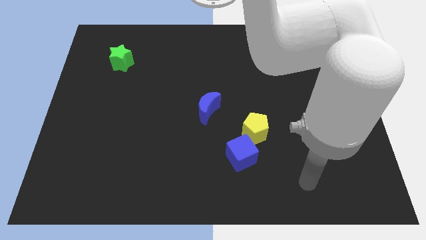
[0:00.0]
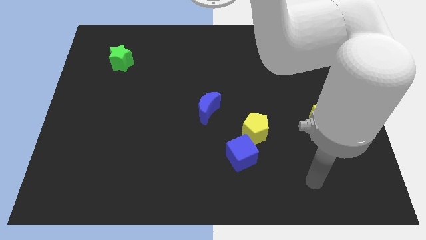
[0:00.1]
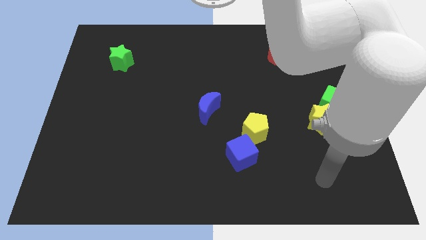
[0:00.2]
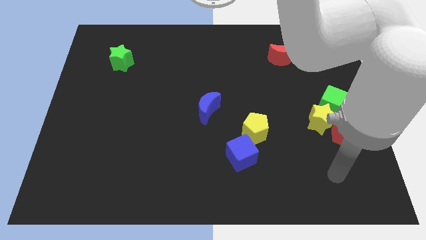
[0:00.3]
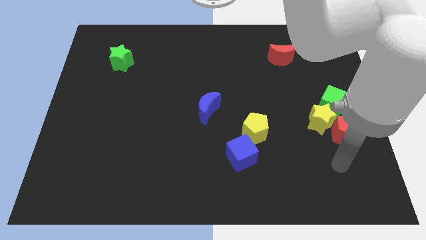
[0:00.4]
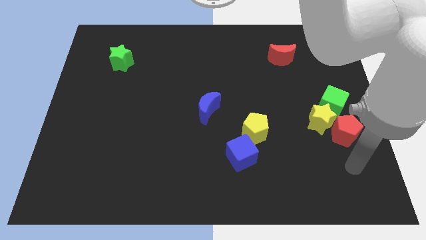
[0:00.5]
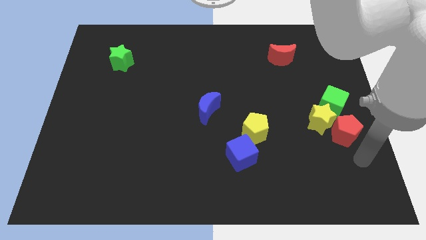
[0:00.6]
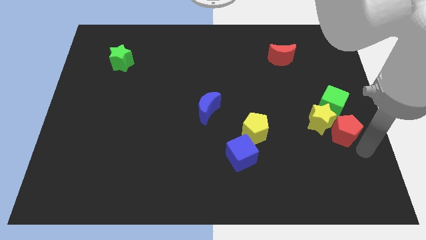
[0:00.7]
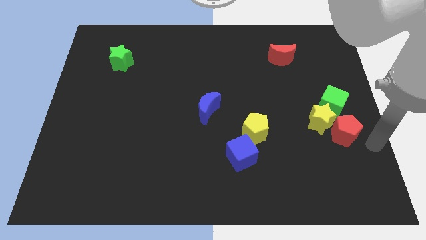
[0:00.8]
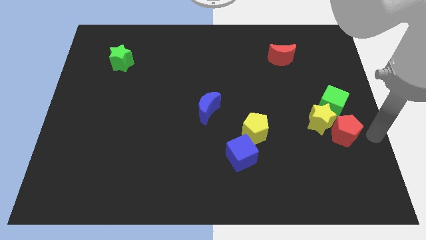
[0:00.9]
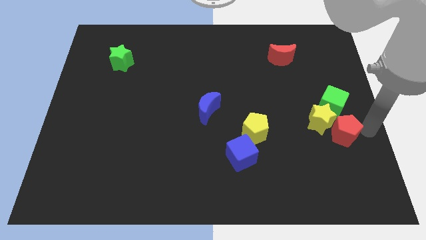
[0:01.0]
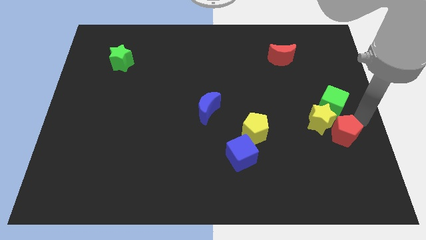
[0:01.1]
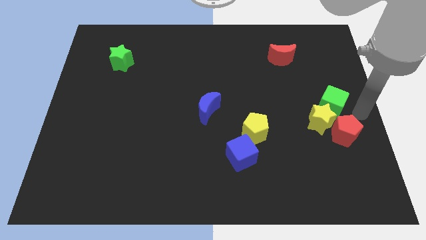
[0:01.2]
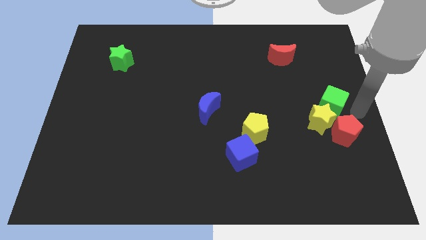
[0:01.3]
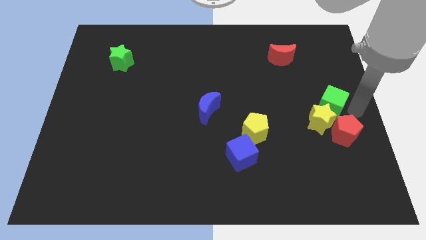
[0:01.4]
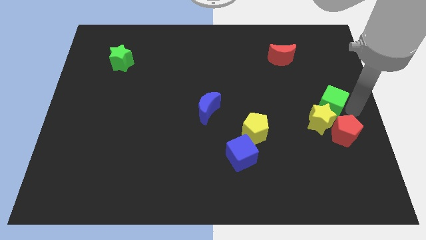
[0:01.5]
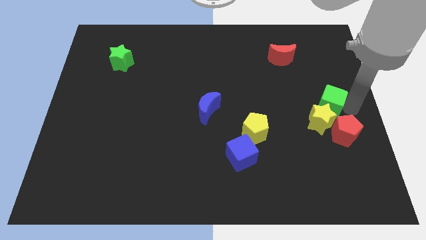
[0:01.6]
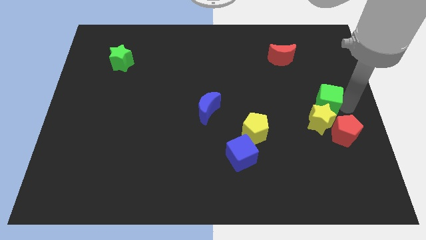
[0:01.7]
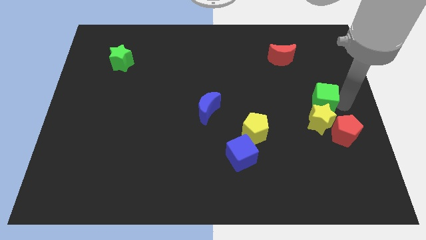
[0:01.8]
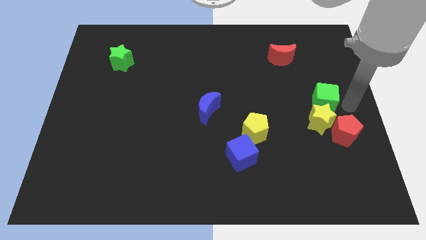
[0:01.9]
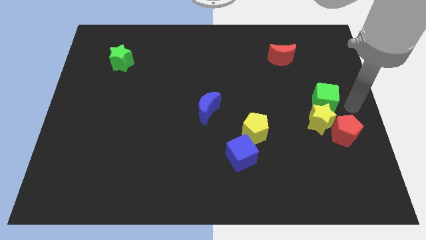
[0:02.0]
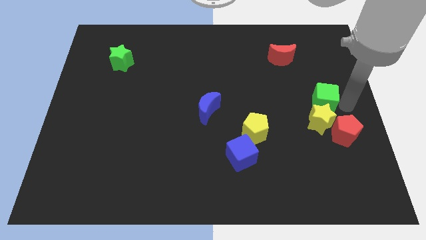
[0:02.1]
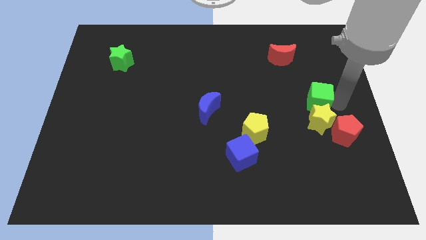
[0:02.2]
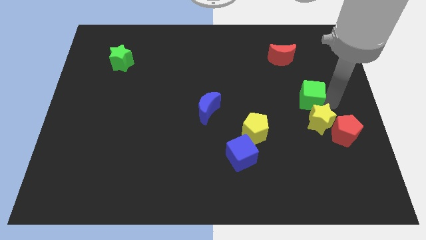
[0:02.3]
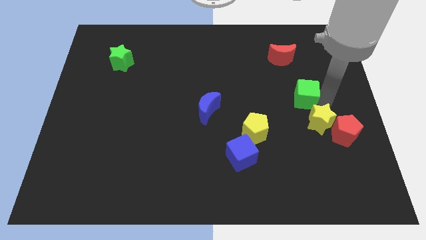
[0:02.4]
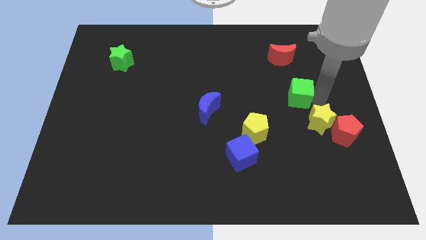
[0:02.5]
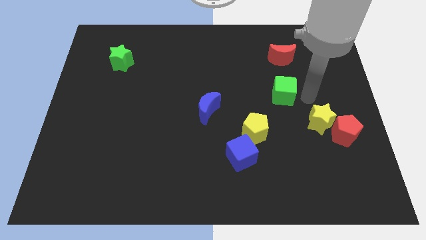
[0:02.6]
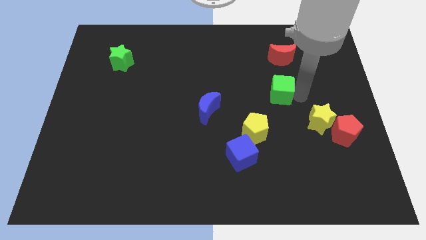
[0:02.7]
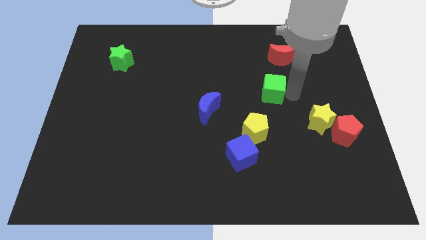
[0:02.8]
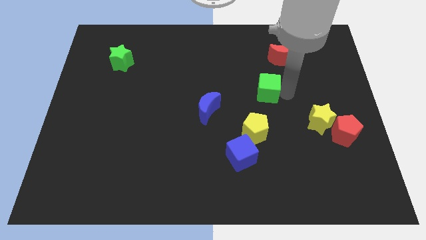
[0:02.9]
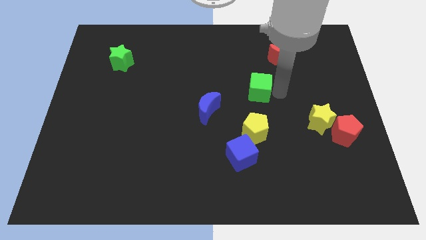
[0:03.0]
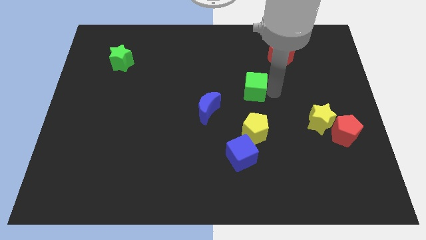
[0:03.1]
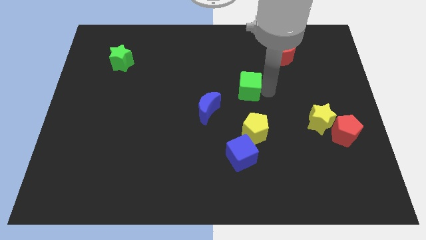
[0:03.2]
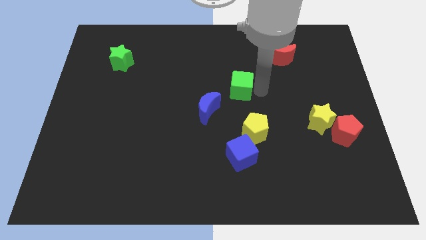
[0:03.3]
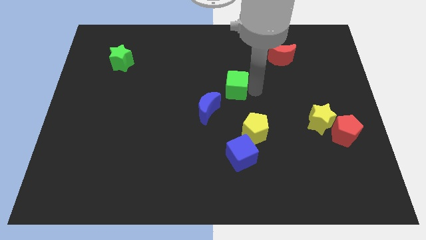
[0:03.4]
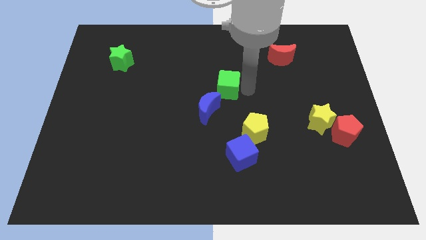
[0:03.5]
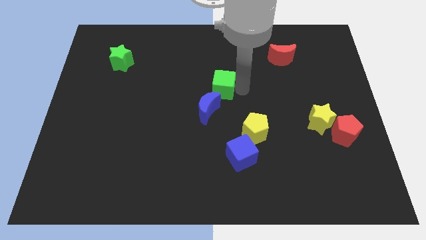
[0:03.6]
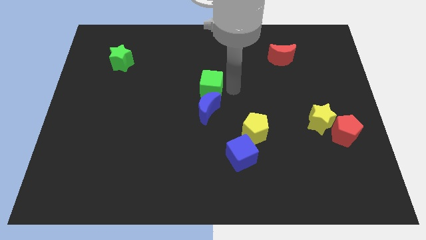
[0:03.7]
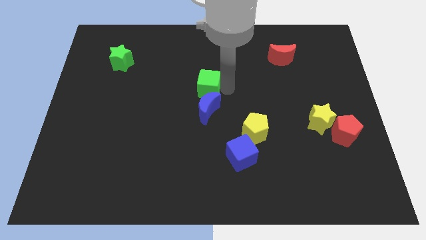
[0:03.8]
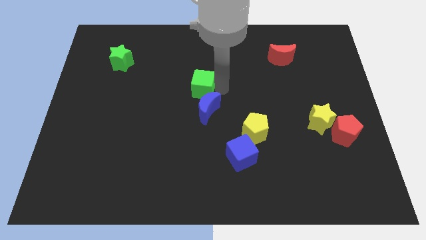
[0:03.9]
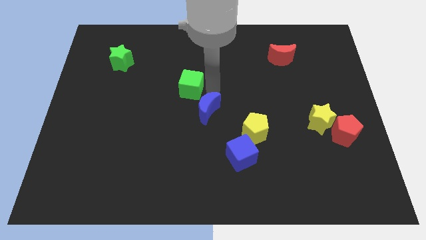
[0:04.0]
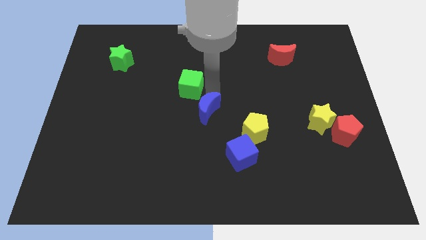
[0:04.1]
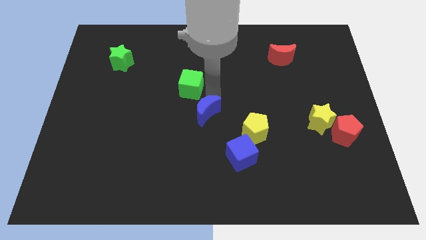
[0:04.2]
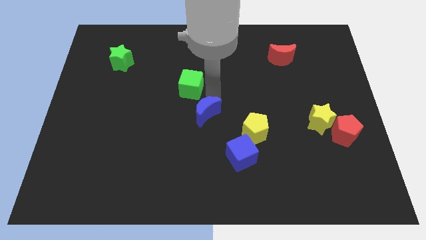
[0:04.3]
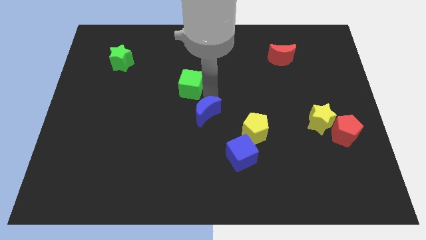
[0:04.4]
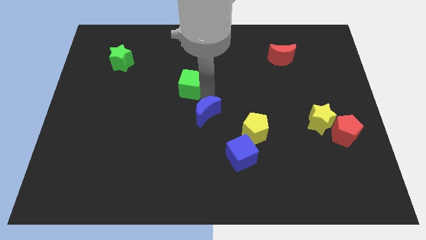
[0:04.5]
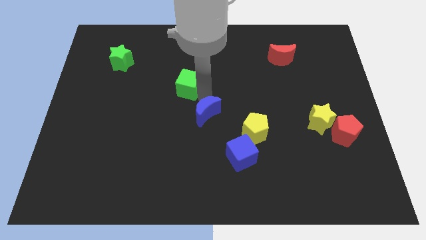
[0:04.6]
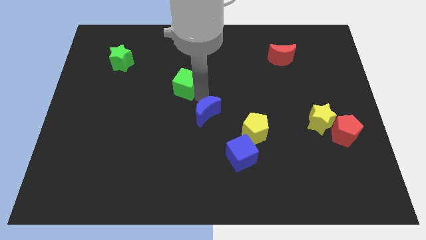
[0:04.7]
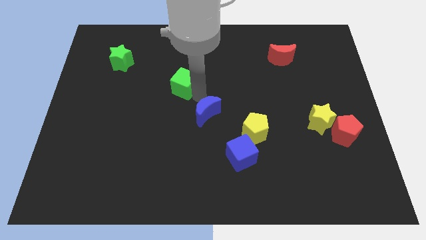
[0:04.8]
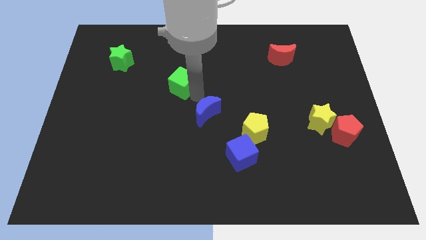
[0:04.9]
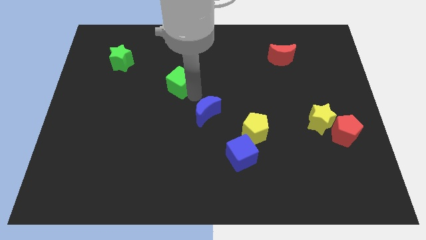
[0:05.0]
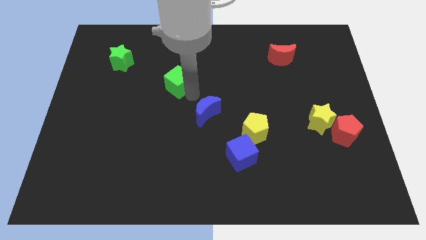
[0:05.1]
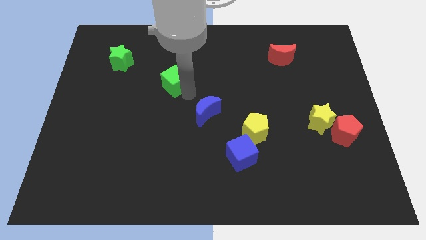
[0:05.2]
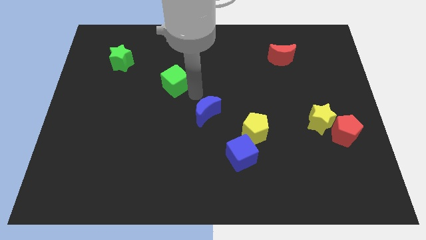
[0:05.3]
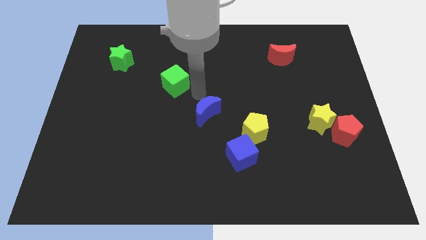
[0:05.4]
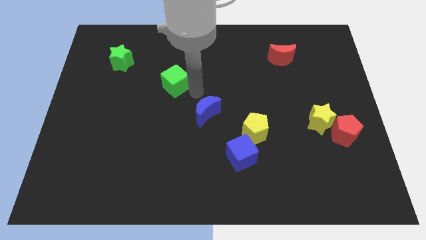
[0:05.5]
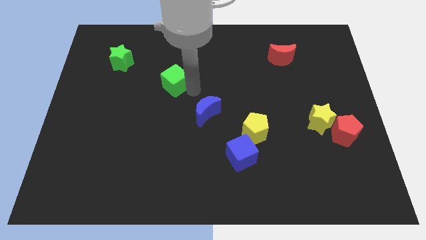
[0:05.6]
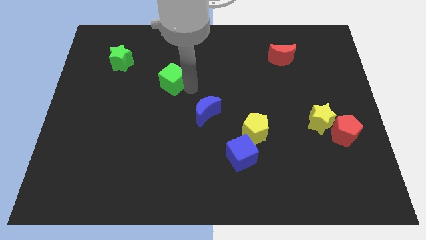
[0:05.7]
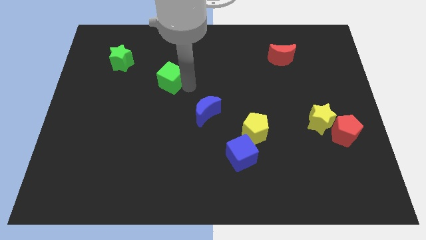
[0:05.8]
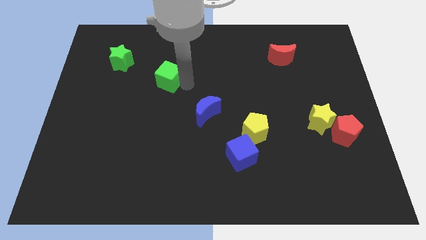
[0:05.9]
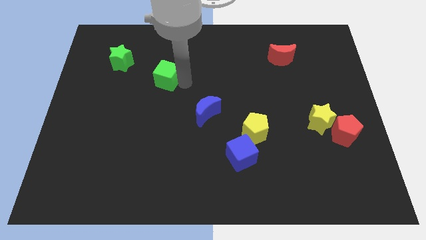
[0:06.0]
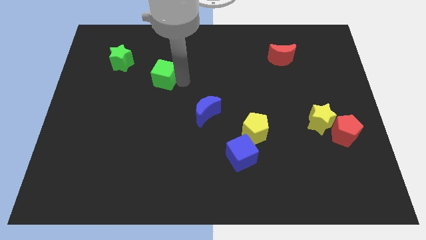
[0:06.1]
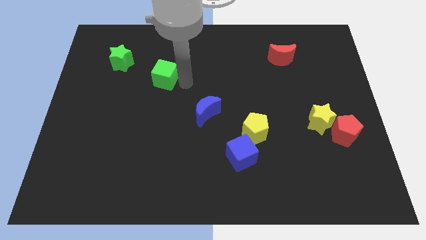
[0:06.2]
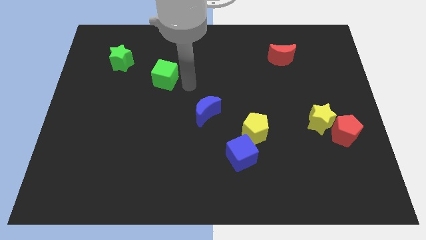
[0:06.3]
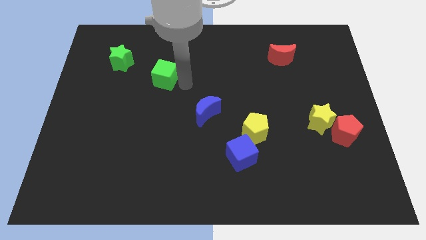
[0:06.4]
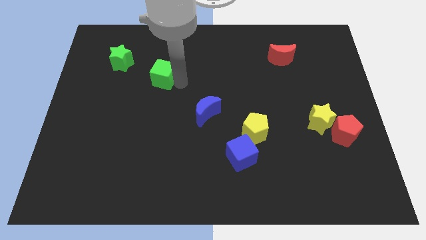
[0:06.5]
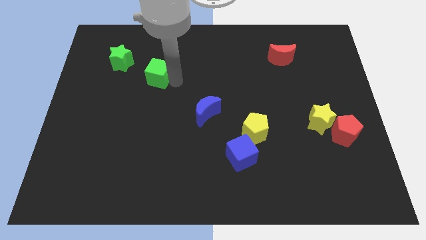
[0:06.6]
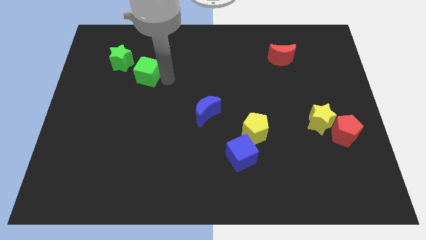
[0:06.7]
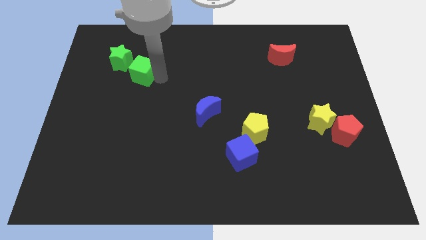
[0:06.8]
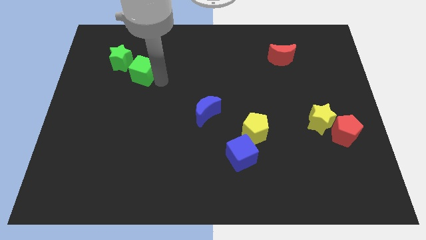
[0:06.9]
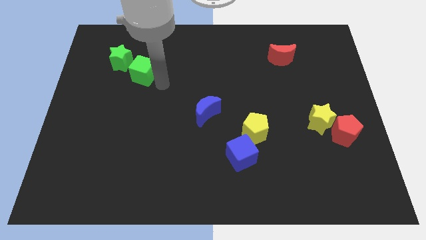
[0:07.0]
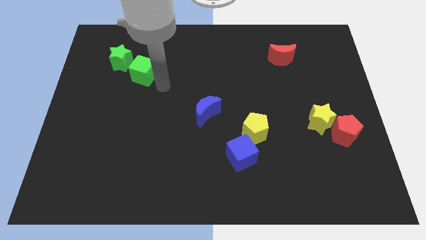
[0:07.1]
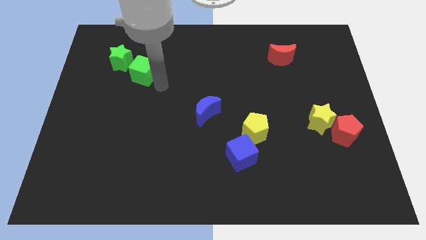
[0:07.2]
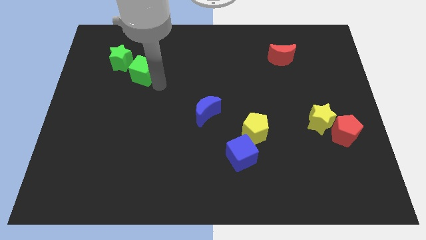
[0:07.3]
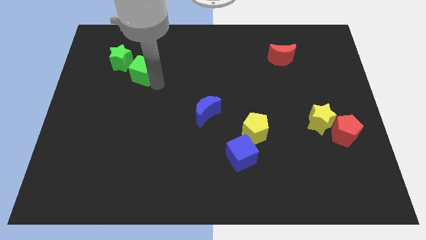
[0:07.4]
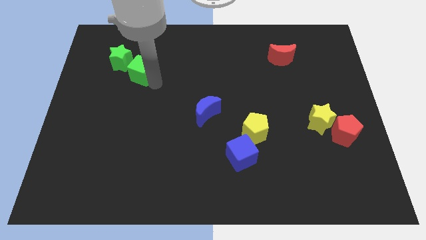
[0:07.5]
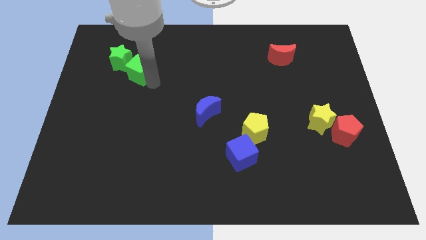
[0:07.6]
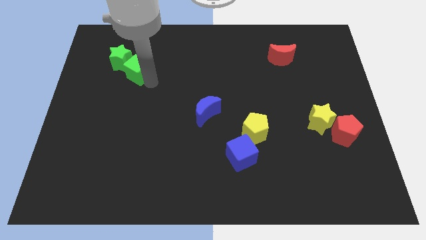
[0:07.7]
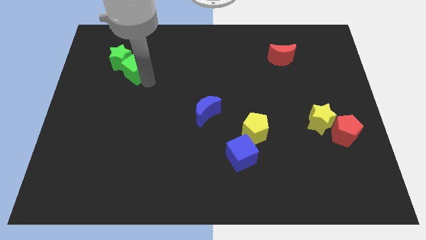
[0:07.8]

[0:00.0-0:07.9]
put the green cube to the green star
